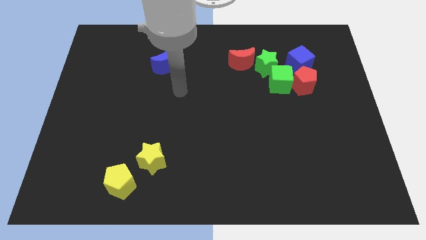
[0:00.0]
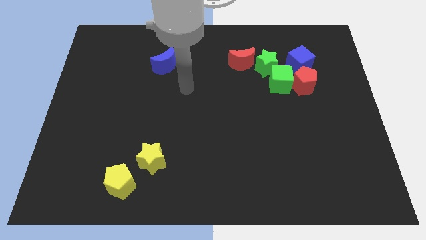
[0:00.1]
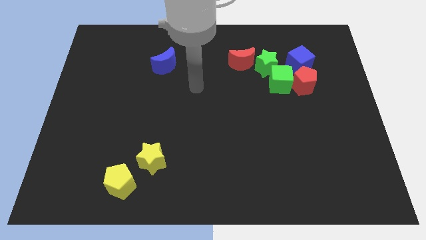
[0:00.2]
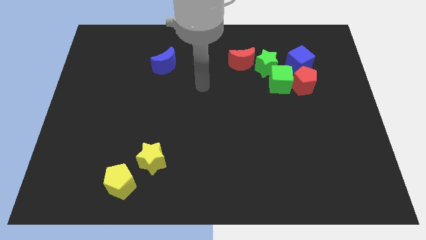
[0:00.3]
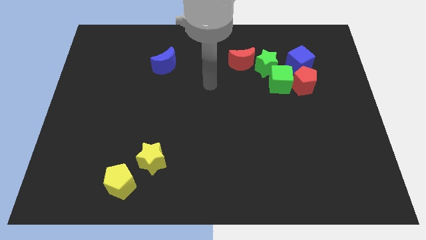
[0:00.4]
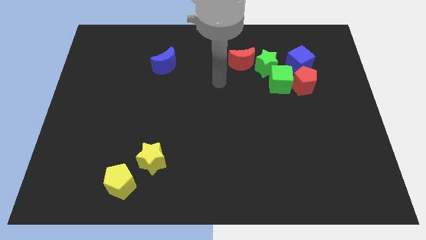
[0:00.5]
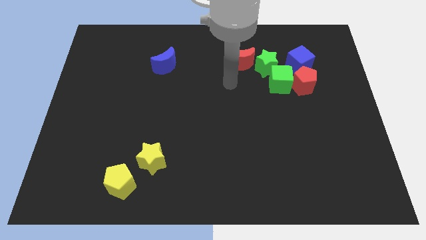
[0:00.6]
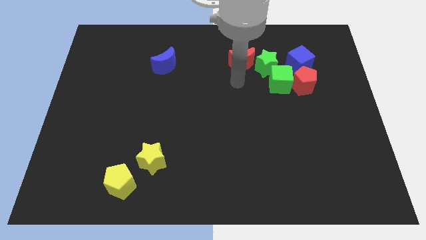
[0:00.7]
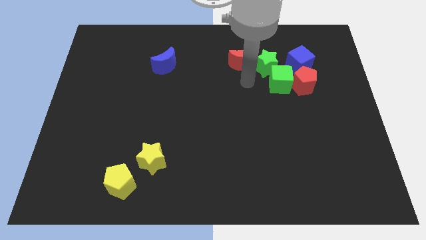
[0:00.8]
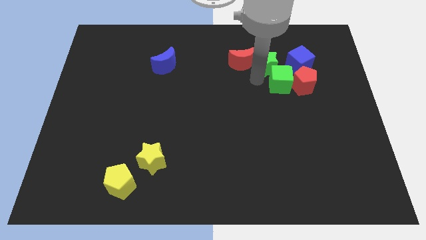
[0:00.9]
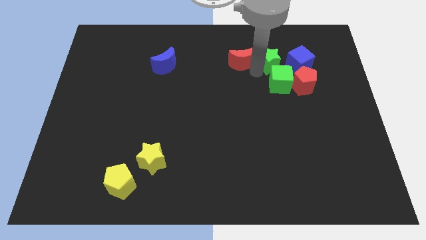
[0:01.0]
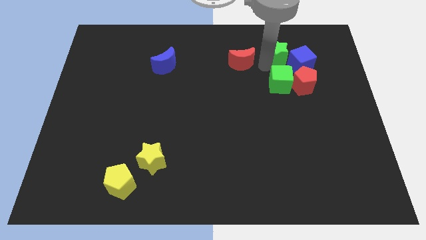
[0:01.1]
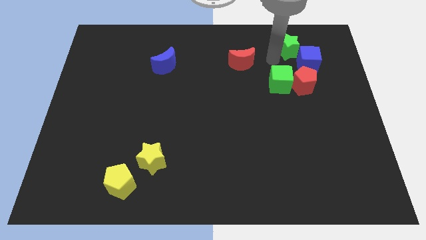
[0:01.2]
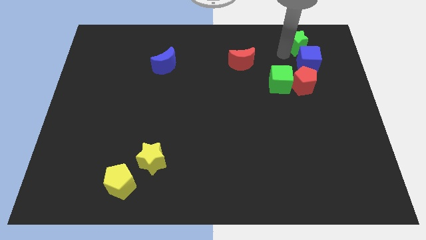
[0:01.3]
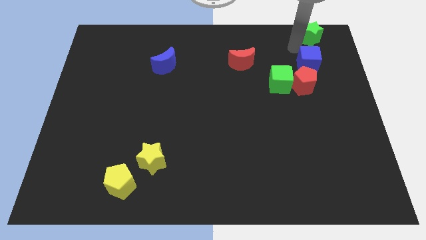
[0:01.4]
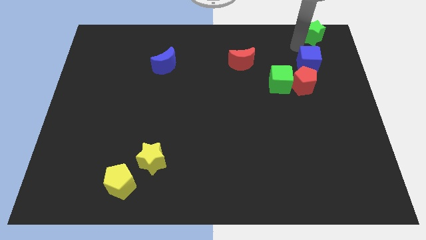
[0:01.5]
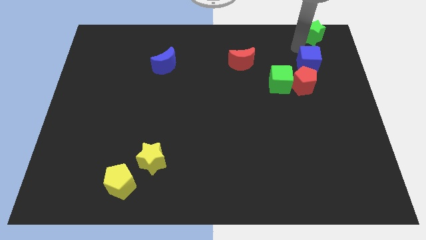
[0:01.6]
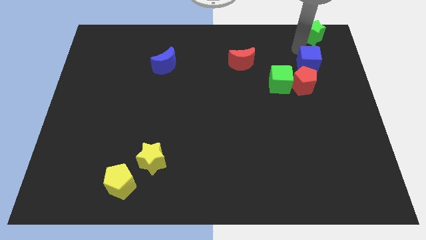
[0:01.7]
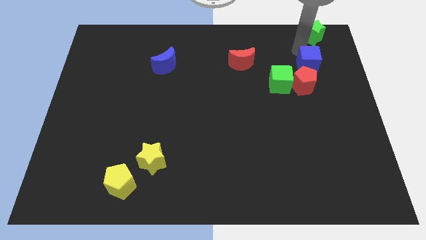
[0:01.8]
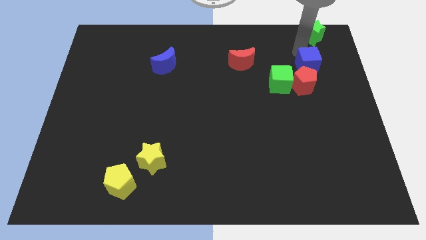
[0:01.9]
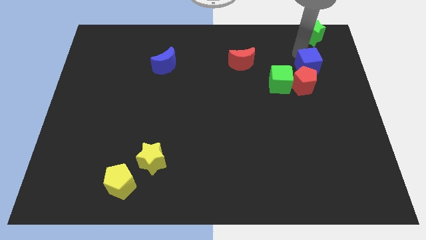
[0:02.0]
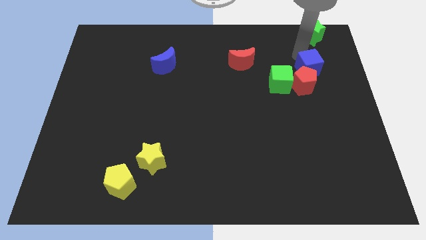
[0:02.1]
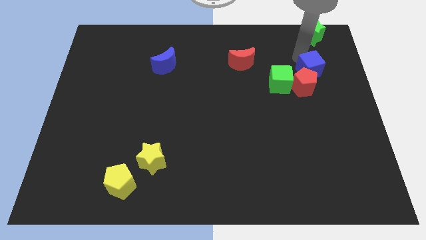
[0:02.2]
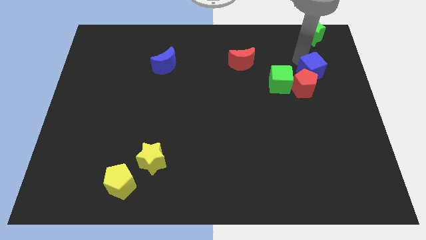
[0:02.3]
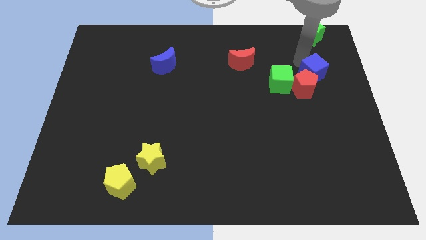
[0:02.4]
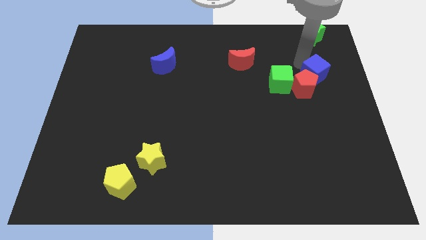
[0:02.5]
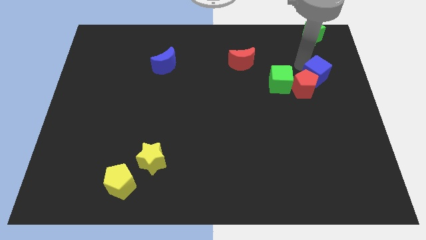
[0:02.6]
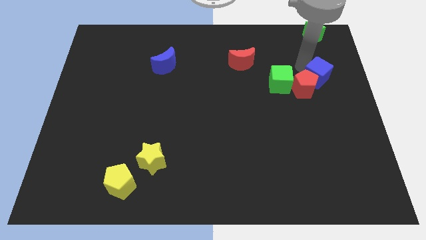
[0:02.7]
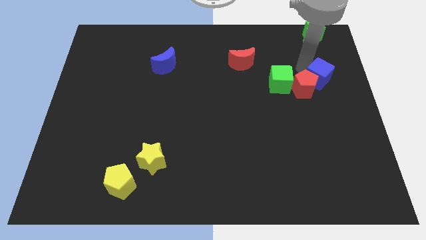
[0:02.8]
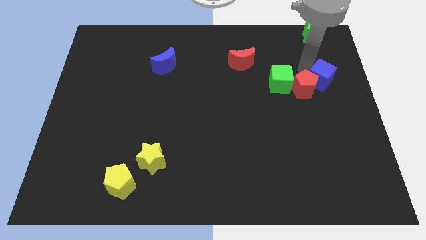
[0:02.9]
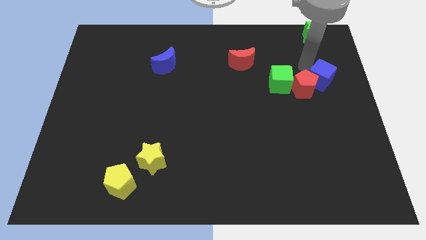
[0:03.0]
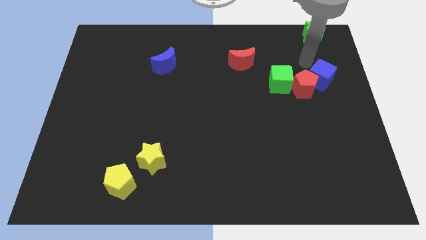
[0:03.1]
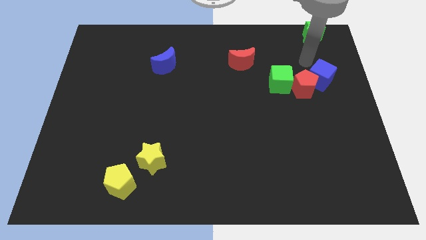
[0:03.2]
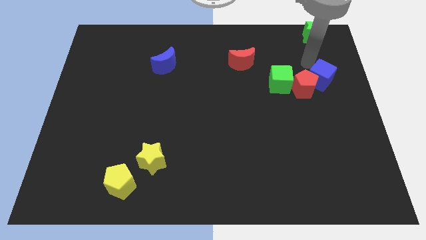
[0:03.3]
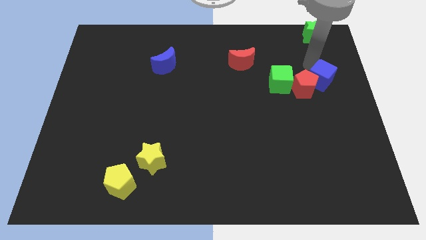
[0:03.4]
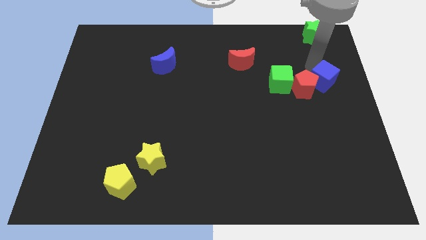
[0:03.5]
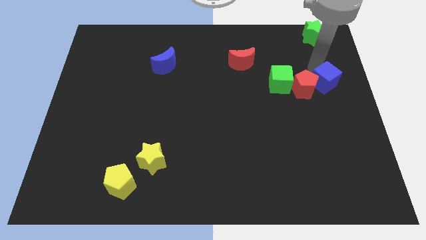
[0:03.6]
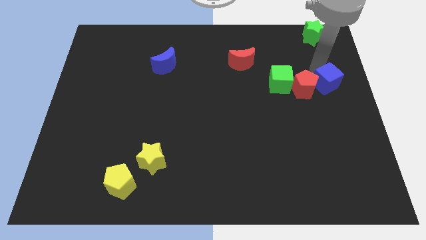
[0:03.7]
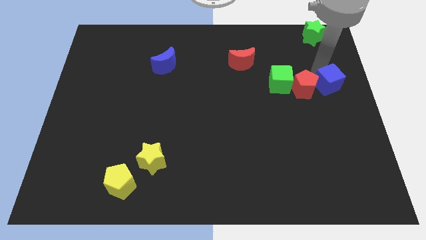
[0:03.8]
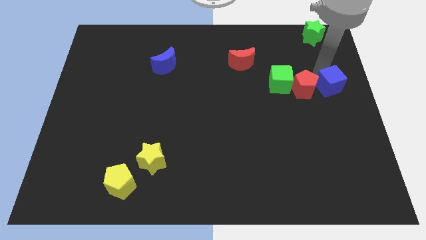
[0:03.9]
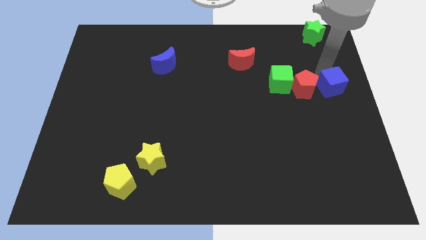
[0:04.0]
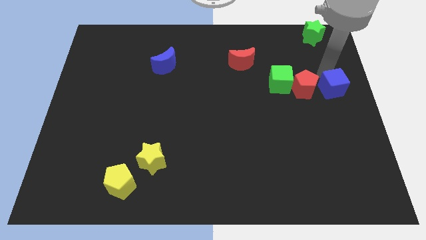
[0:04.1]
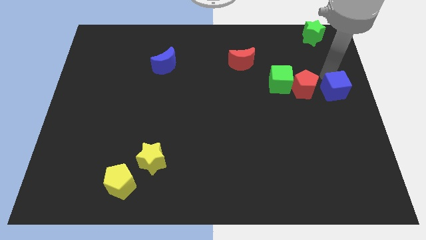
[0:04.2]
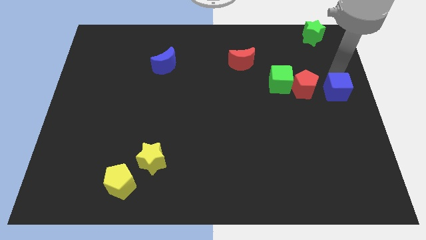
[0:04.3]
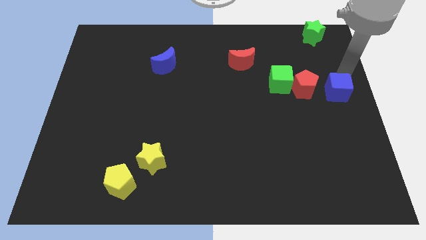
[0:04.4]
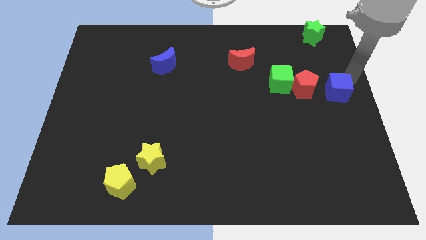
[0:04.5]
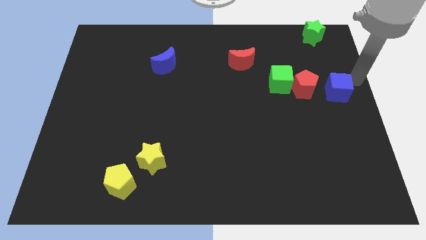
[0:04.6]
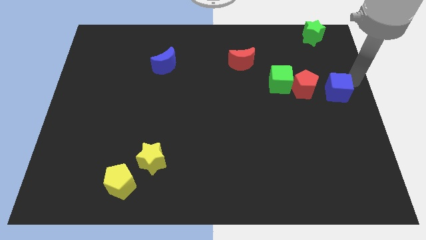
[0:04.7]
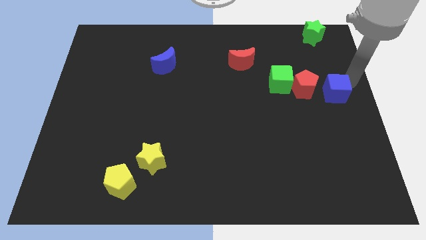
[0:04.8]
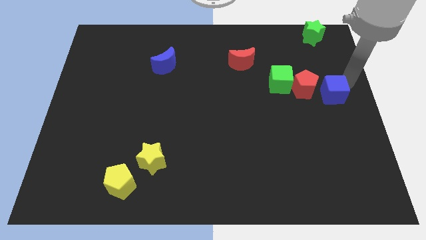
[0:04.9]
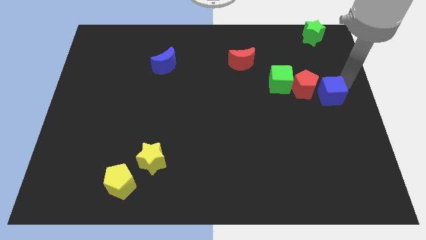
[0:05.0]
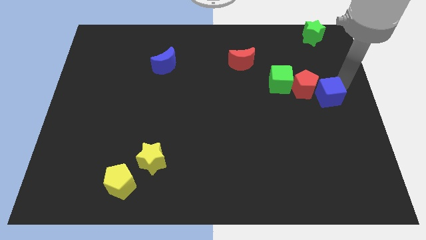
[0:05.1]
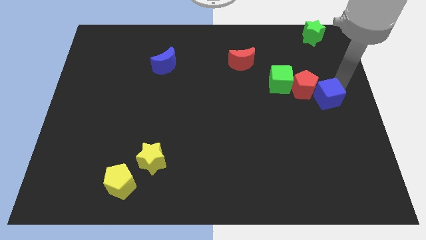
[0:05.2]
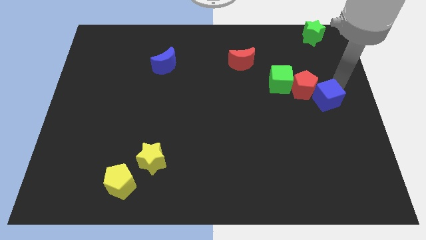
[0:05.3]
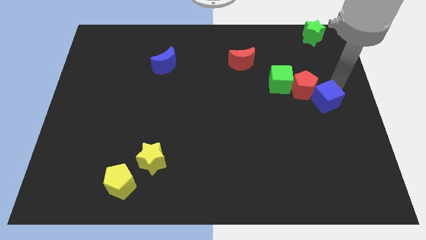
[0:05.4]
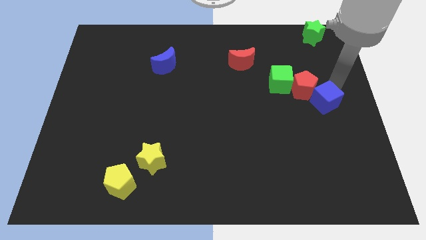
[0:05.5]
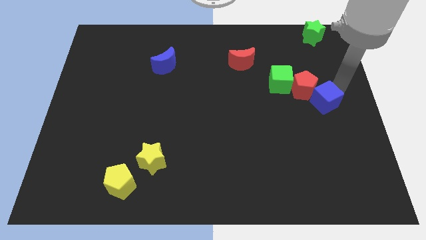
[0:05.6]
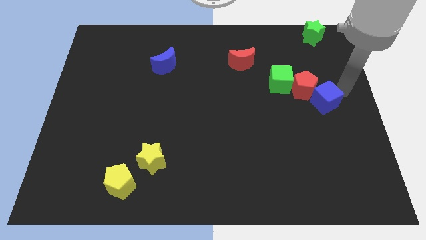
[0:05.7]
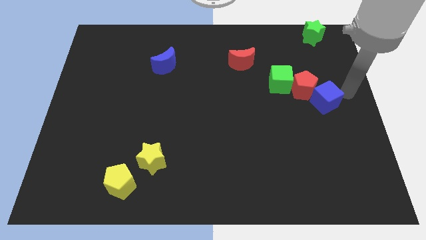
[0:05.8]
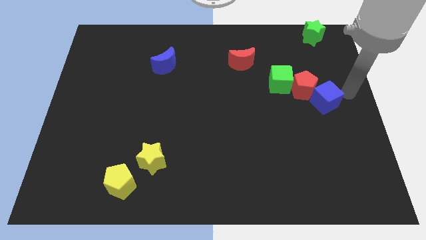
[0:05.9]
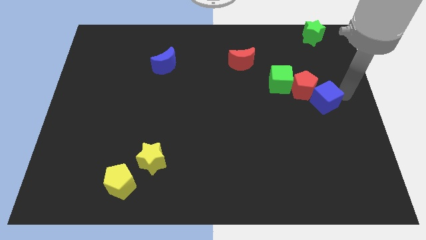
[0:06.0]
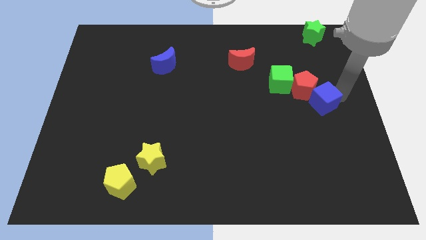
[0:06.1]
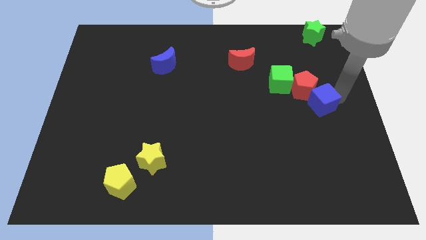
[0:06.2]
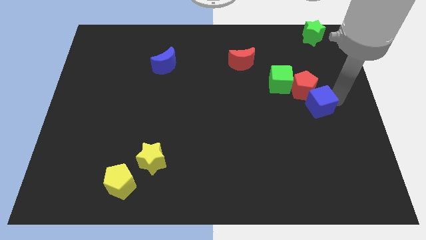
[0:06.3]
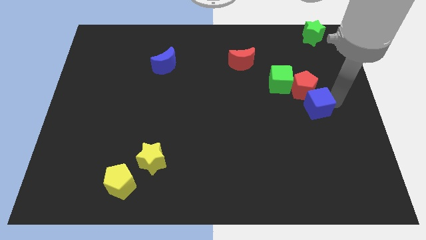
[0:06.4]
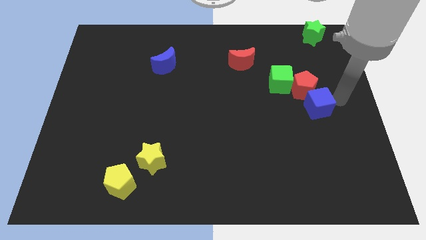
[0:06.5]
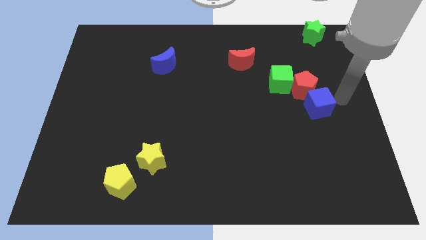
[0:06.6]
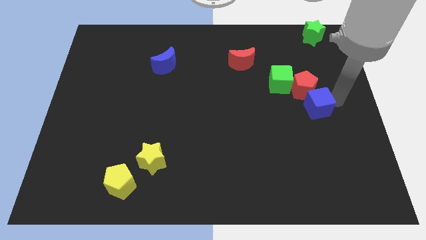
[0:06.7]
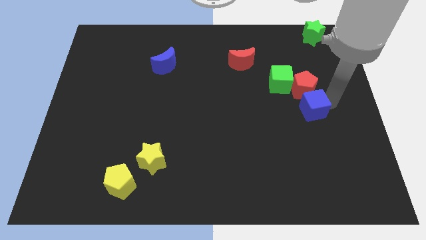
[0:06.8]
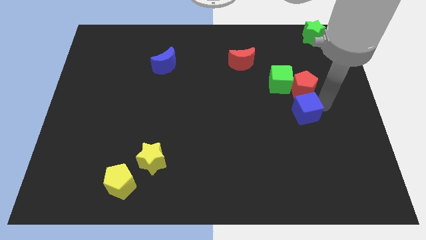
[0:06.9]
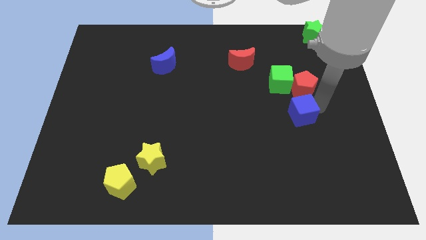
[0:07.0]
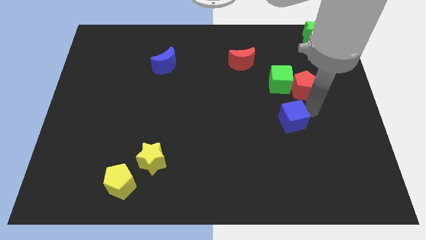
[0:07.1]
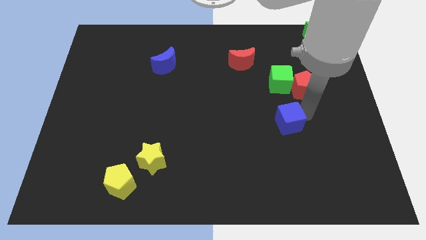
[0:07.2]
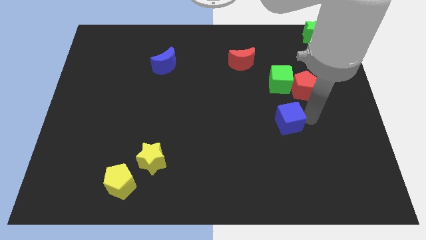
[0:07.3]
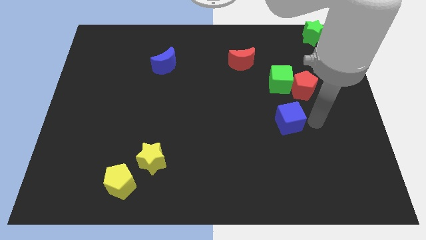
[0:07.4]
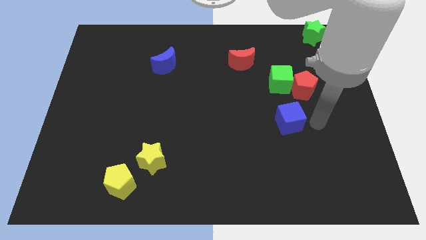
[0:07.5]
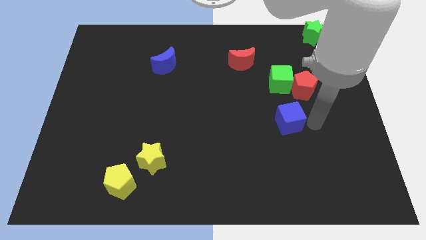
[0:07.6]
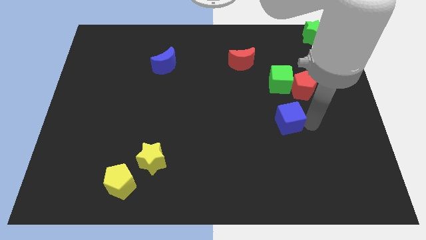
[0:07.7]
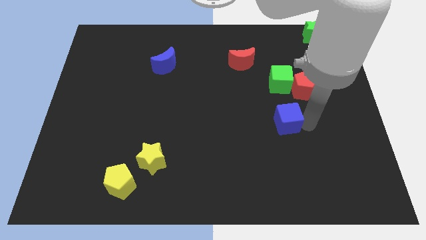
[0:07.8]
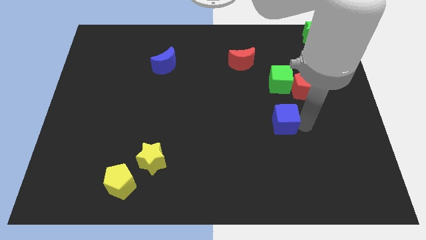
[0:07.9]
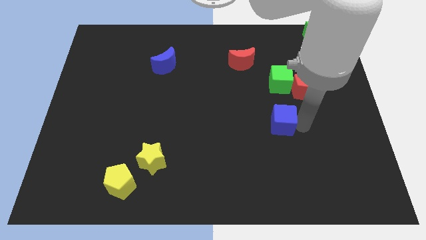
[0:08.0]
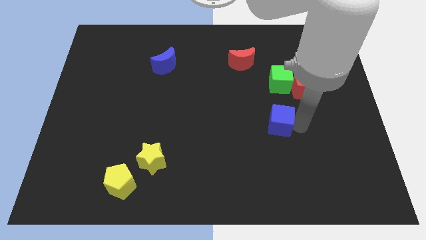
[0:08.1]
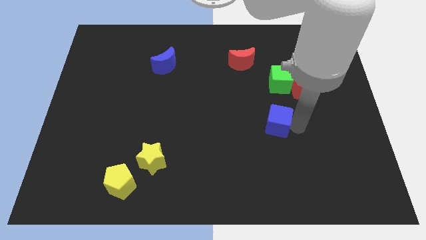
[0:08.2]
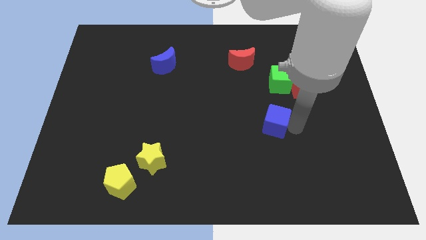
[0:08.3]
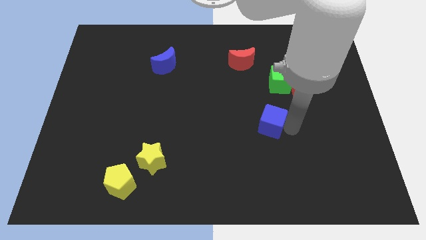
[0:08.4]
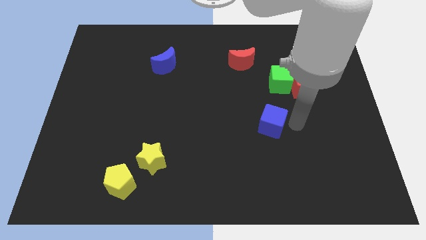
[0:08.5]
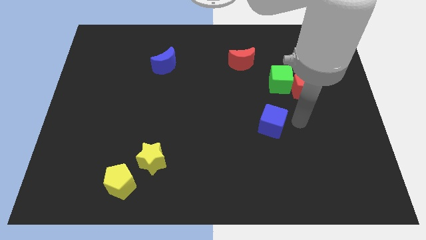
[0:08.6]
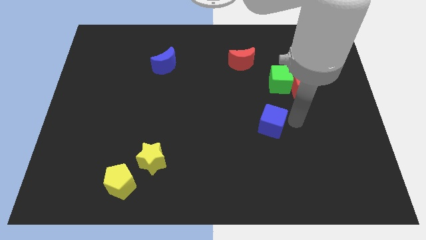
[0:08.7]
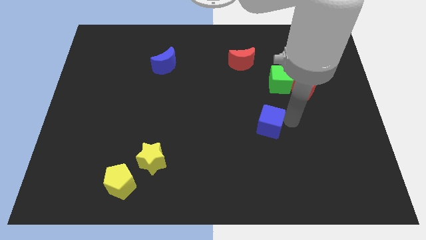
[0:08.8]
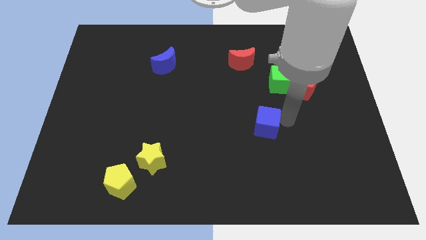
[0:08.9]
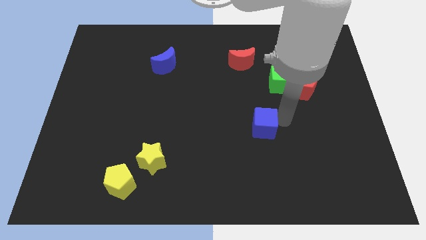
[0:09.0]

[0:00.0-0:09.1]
push the blue cube downwards and to the left diagonally
